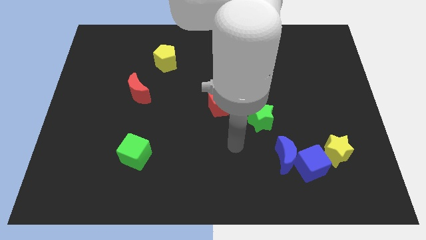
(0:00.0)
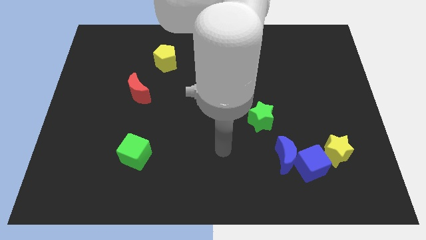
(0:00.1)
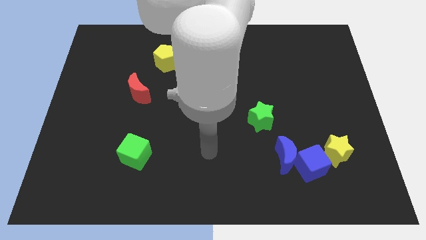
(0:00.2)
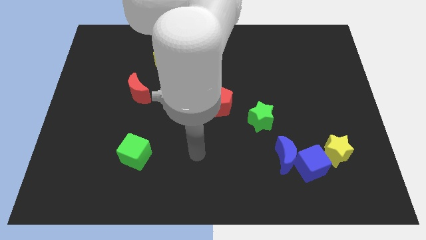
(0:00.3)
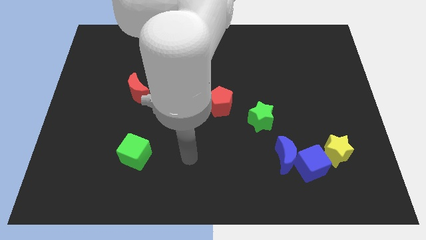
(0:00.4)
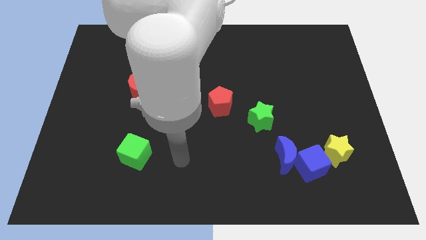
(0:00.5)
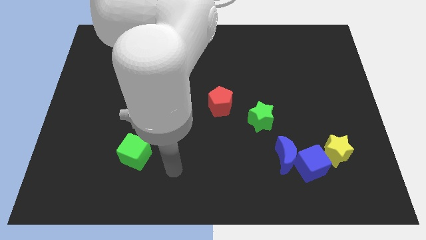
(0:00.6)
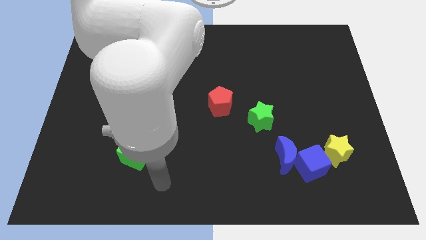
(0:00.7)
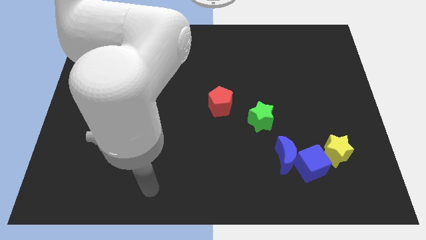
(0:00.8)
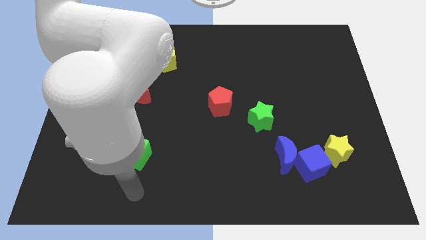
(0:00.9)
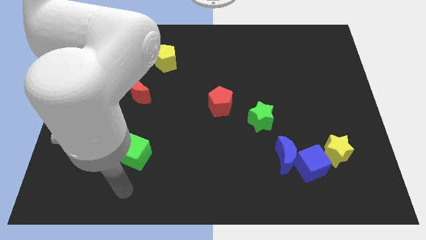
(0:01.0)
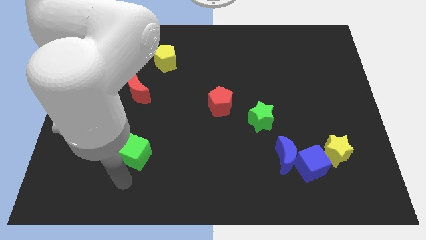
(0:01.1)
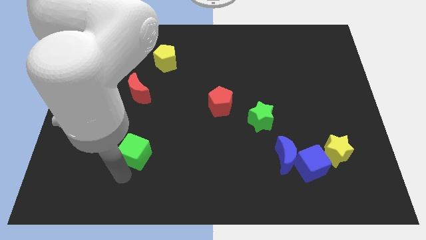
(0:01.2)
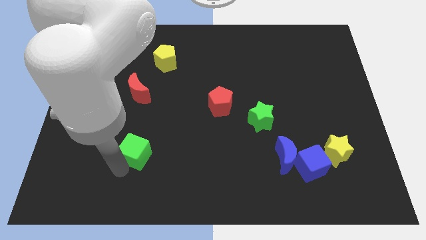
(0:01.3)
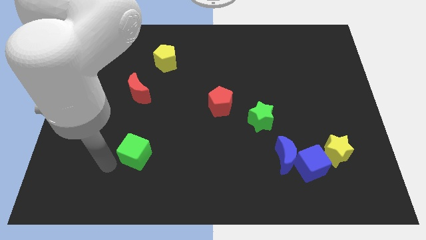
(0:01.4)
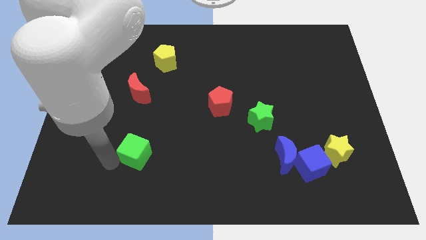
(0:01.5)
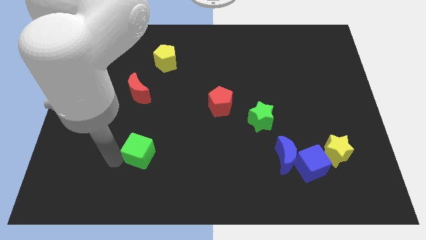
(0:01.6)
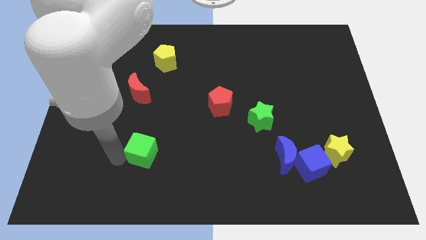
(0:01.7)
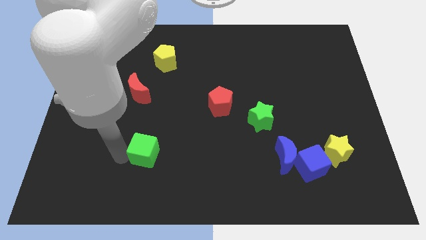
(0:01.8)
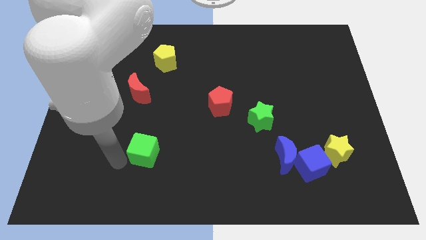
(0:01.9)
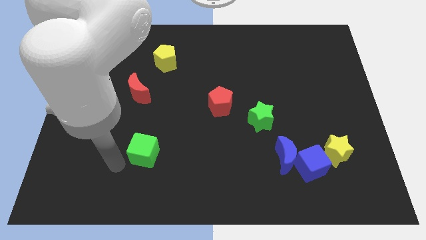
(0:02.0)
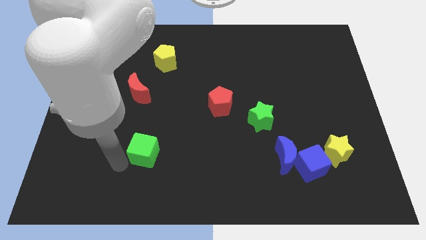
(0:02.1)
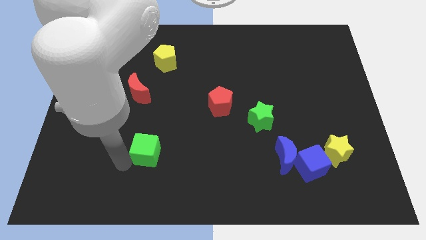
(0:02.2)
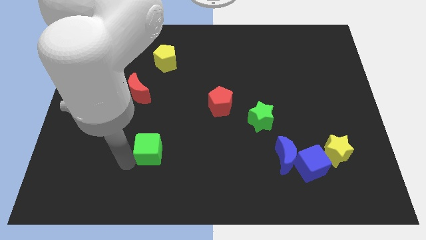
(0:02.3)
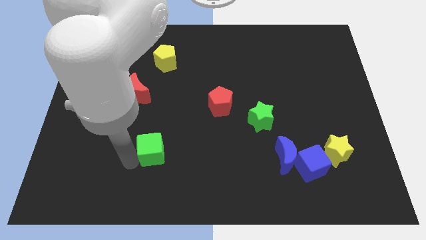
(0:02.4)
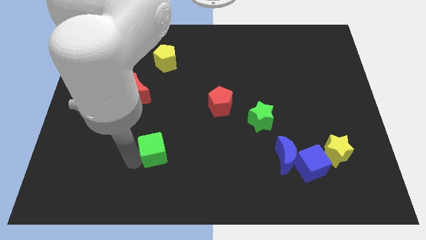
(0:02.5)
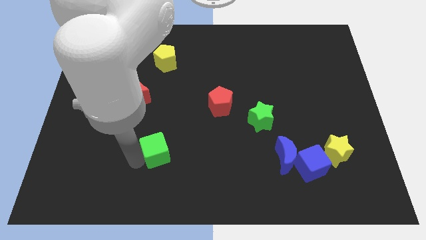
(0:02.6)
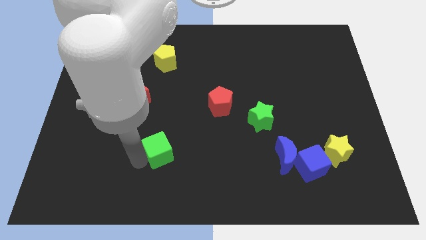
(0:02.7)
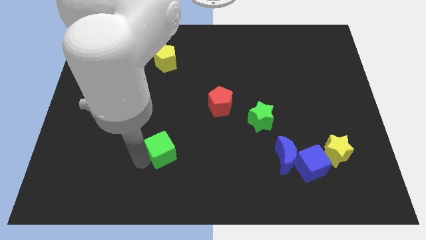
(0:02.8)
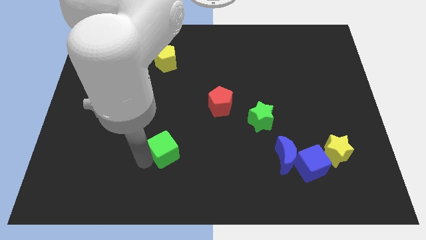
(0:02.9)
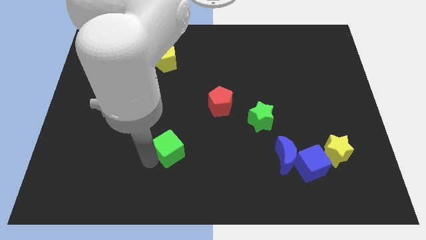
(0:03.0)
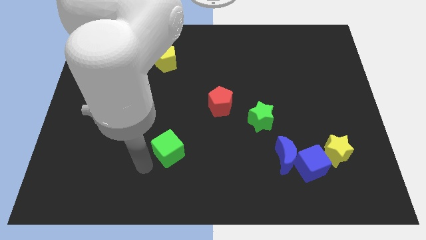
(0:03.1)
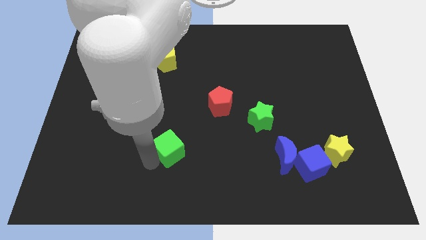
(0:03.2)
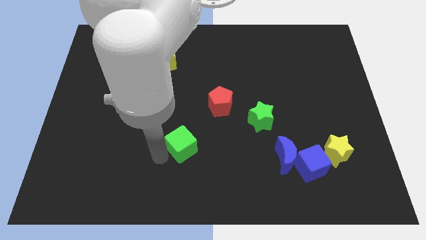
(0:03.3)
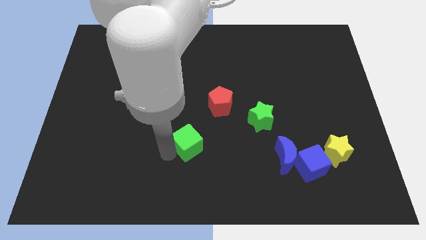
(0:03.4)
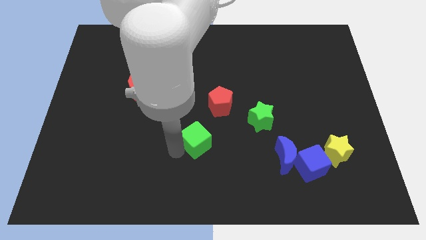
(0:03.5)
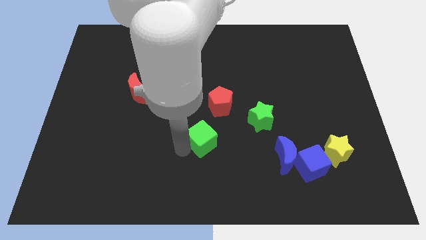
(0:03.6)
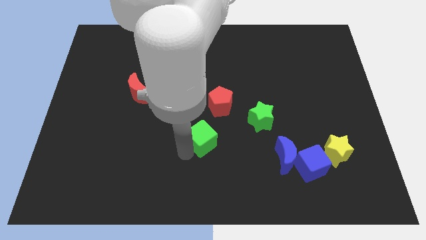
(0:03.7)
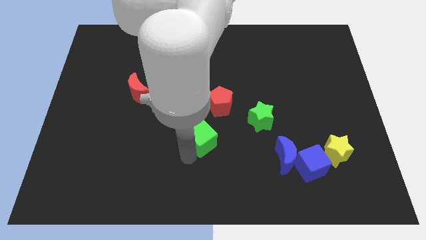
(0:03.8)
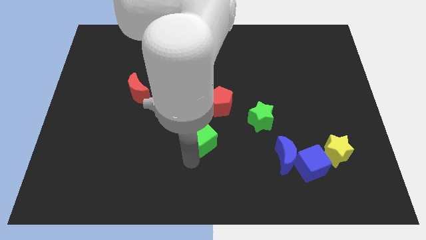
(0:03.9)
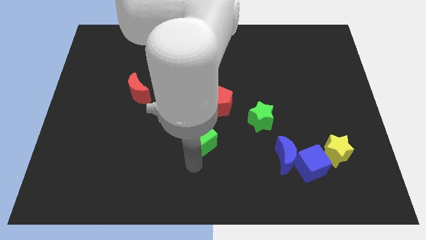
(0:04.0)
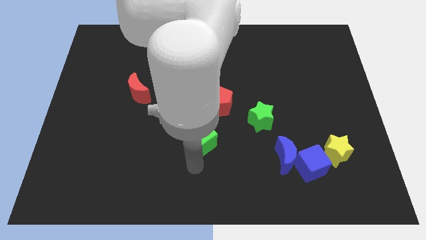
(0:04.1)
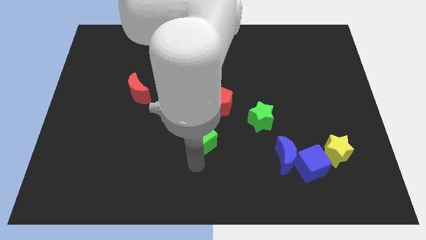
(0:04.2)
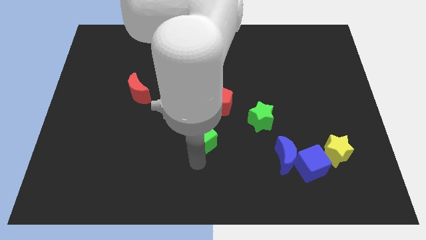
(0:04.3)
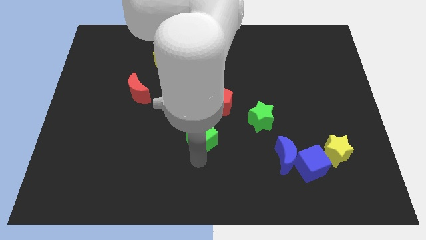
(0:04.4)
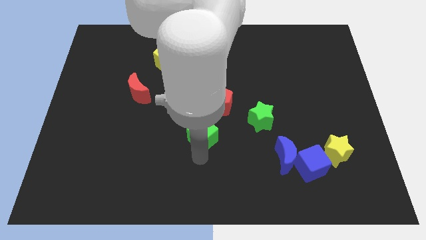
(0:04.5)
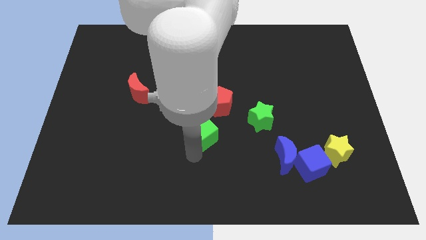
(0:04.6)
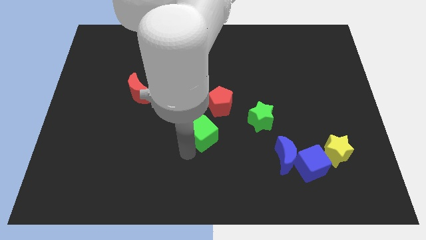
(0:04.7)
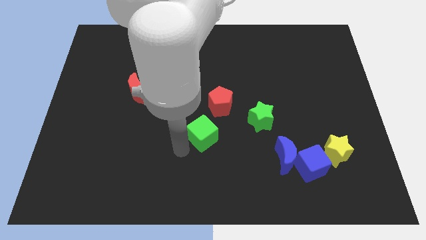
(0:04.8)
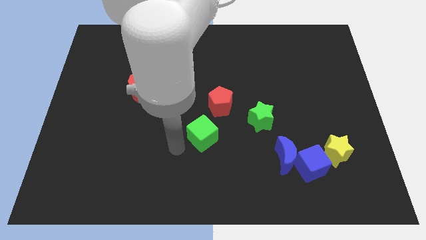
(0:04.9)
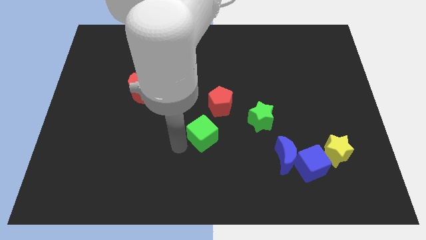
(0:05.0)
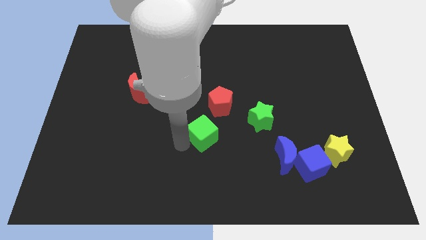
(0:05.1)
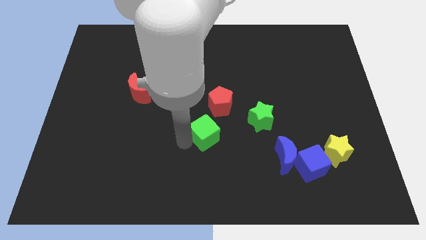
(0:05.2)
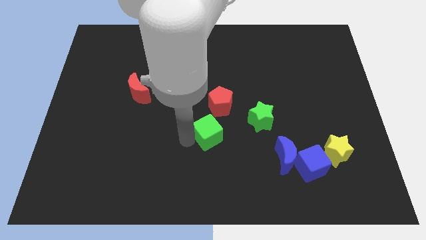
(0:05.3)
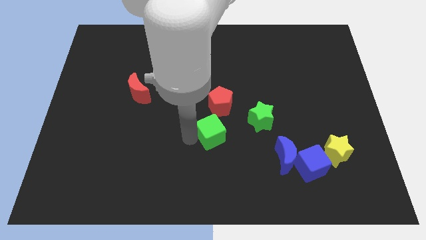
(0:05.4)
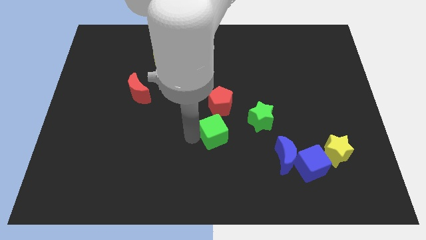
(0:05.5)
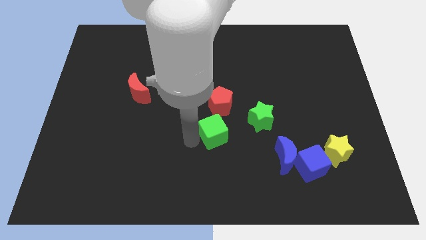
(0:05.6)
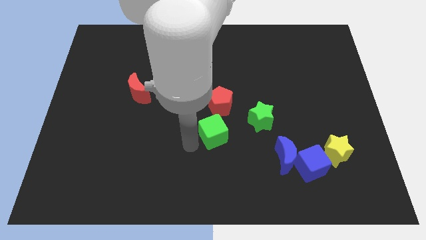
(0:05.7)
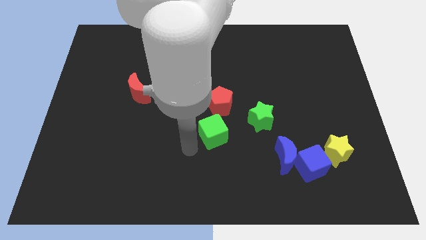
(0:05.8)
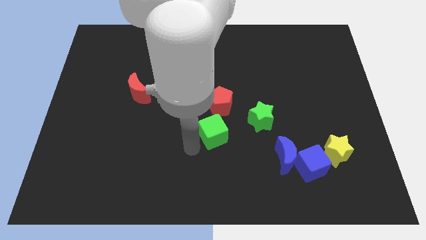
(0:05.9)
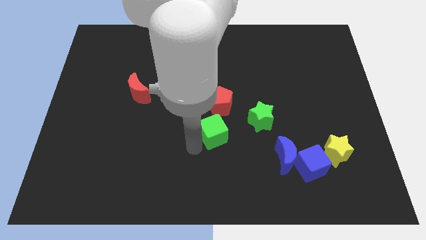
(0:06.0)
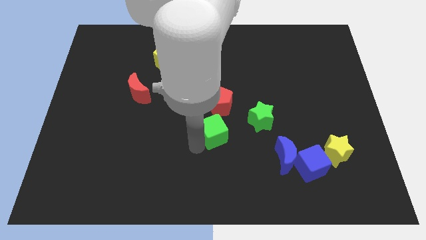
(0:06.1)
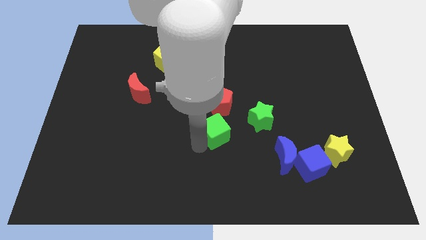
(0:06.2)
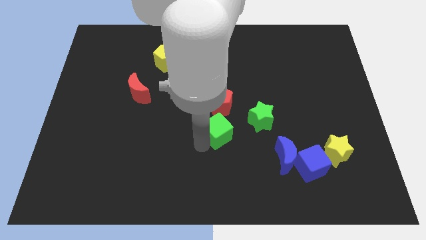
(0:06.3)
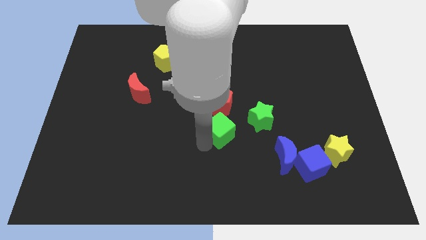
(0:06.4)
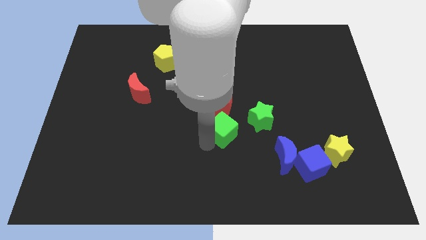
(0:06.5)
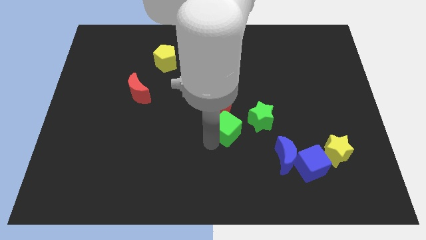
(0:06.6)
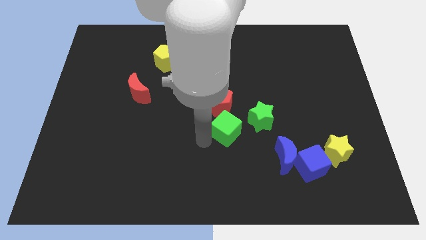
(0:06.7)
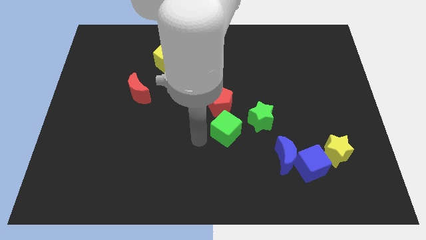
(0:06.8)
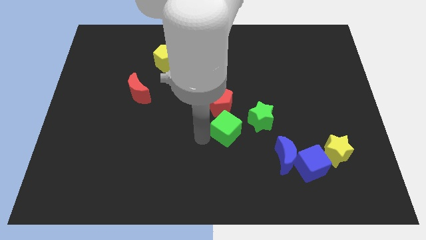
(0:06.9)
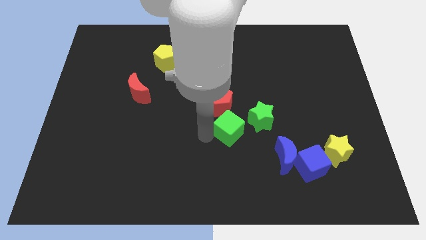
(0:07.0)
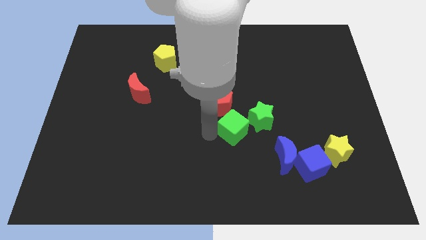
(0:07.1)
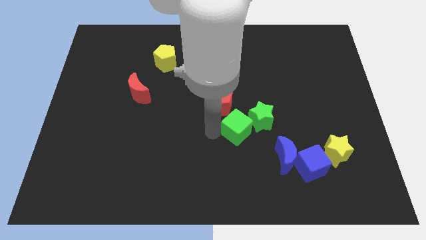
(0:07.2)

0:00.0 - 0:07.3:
push the green cube to the green star

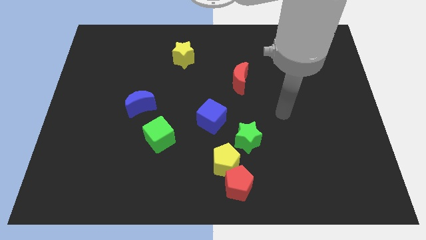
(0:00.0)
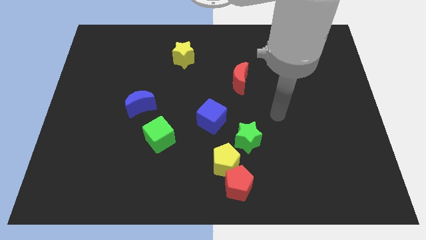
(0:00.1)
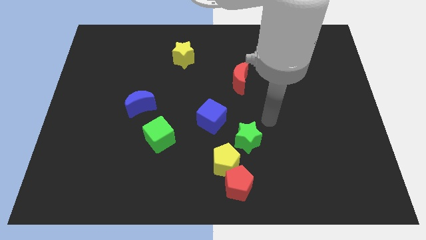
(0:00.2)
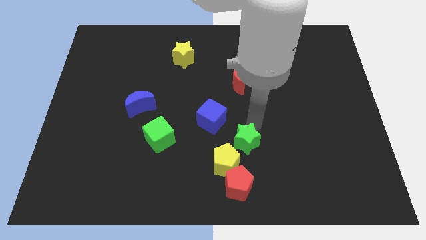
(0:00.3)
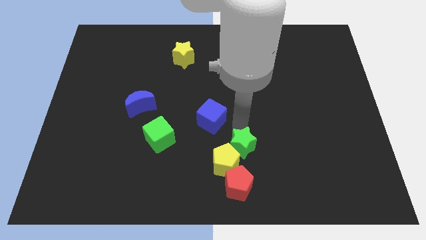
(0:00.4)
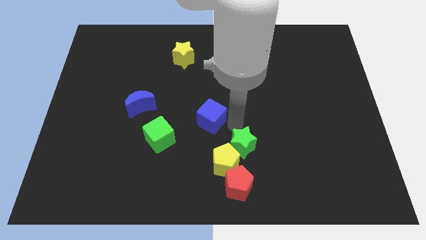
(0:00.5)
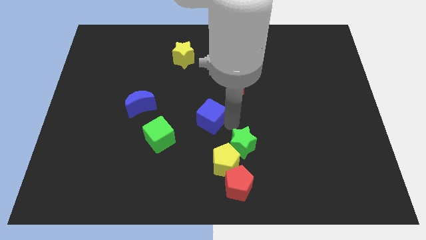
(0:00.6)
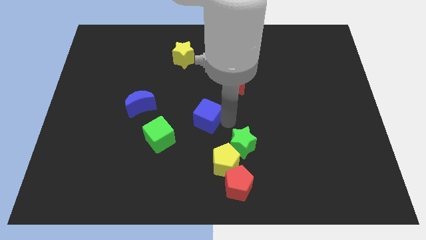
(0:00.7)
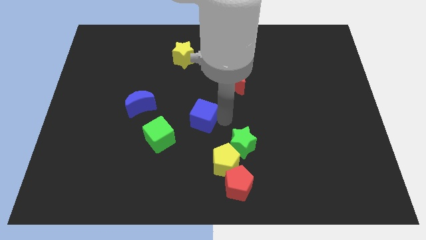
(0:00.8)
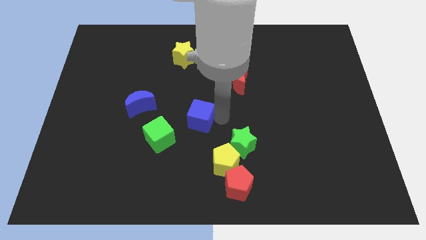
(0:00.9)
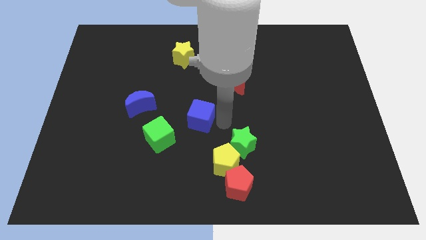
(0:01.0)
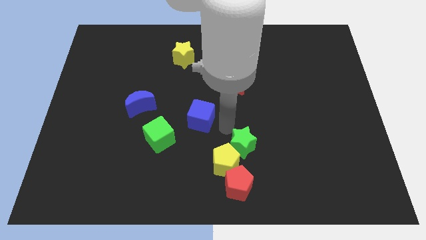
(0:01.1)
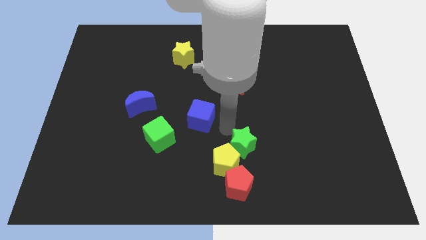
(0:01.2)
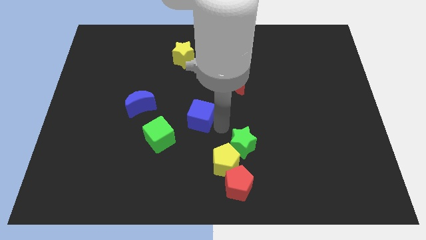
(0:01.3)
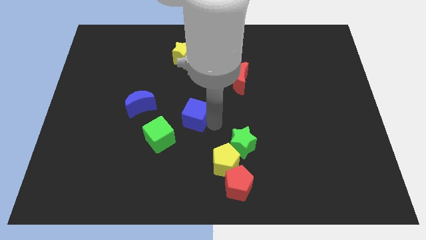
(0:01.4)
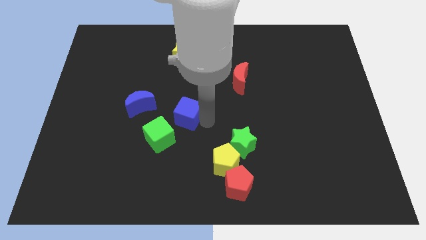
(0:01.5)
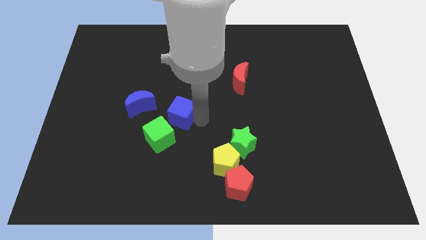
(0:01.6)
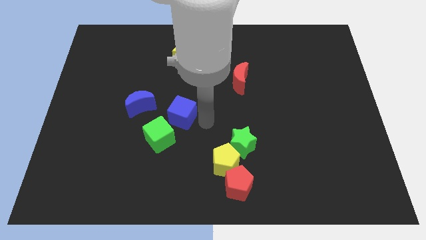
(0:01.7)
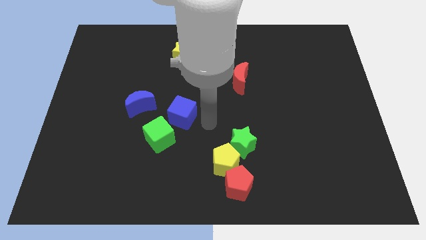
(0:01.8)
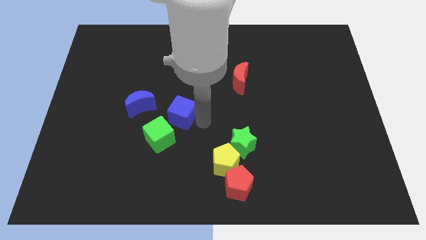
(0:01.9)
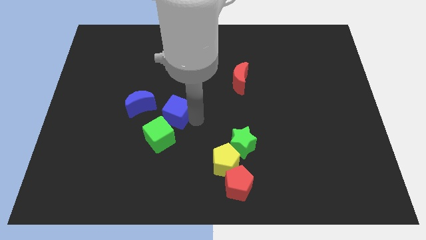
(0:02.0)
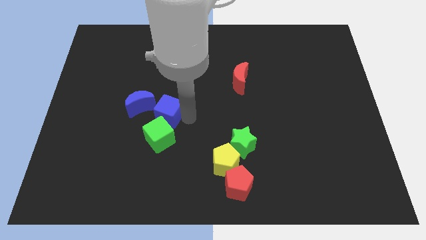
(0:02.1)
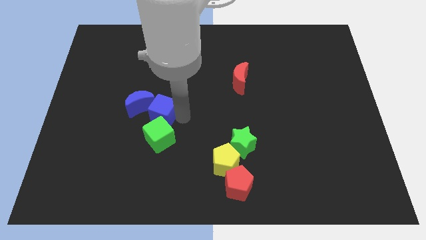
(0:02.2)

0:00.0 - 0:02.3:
move the blue cube to the blue moon
